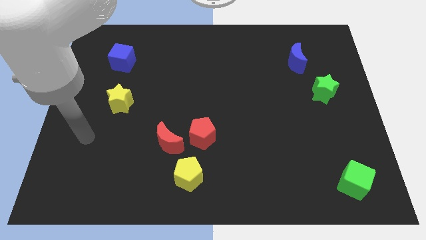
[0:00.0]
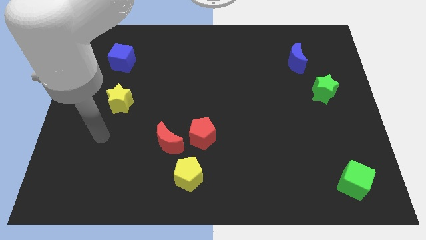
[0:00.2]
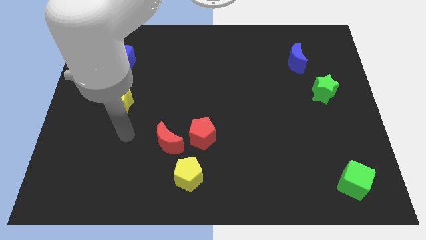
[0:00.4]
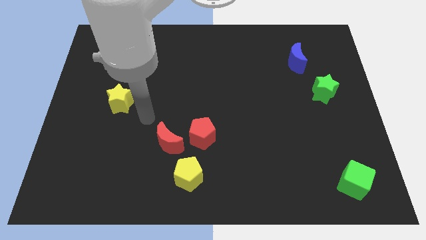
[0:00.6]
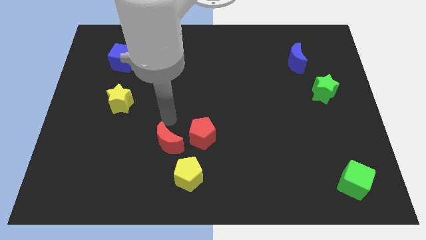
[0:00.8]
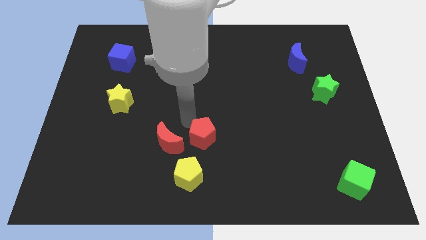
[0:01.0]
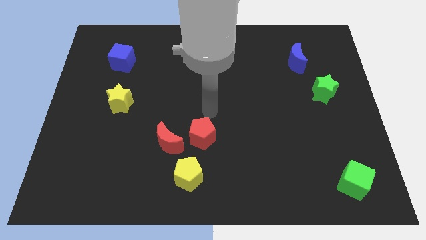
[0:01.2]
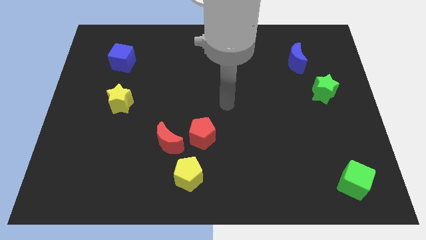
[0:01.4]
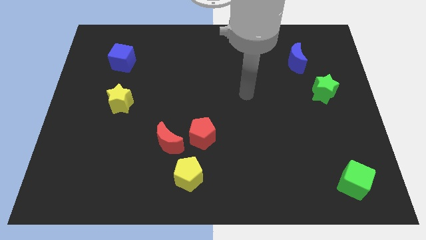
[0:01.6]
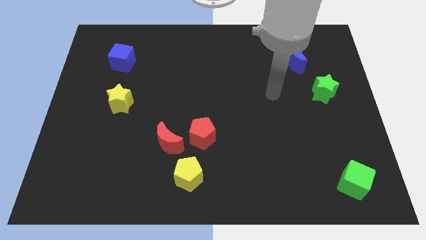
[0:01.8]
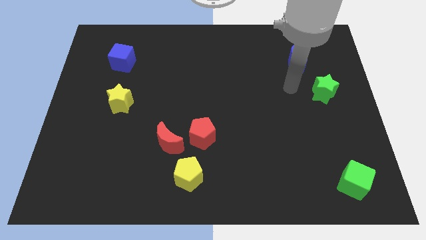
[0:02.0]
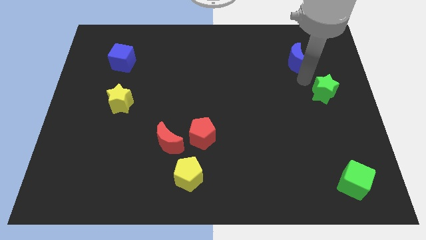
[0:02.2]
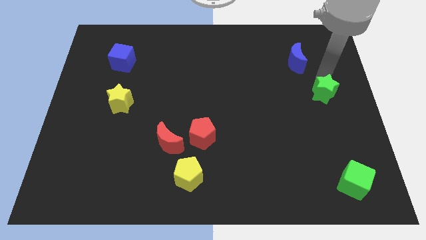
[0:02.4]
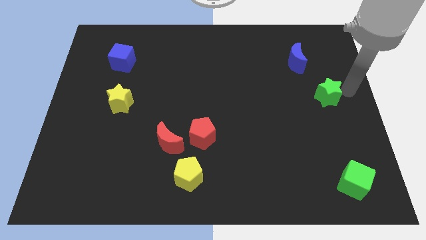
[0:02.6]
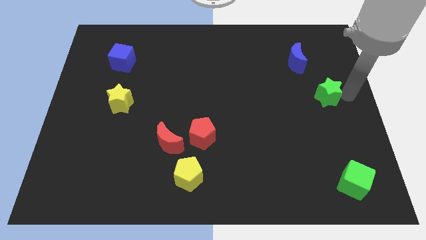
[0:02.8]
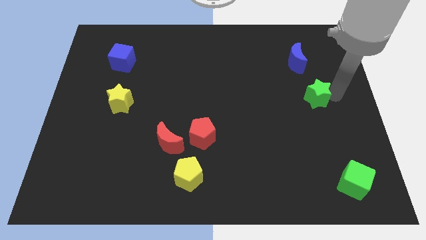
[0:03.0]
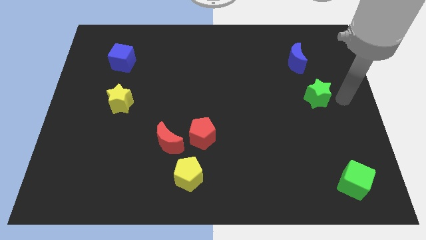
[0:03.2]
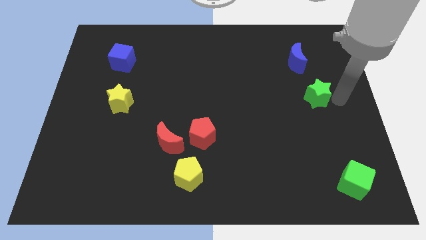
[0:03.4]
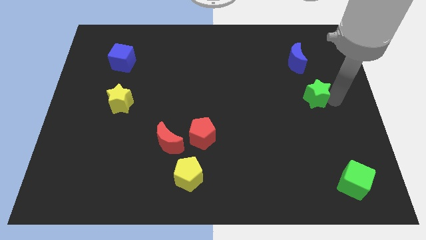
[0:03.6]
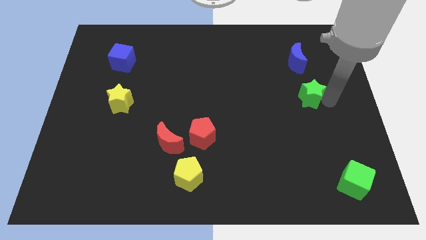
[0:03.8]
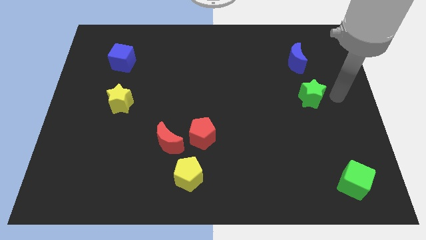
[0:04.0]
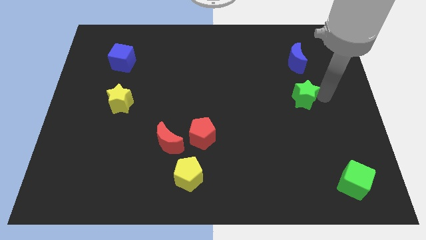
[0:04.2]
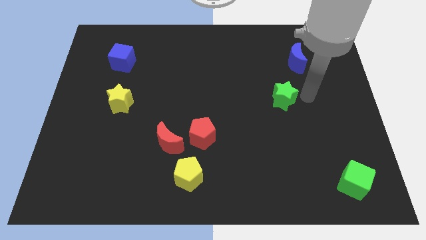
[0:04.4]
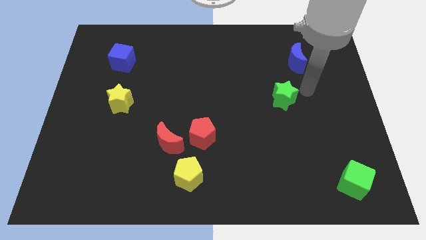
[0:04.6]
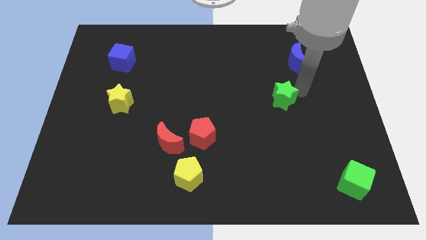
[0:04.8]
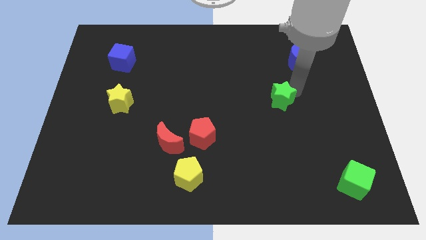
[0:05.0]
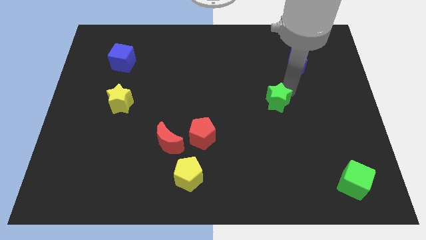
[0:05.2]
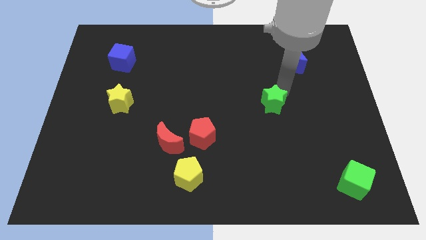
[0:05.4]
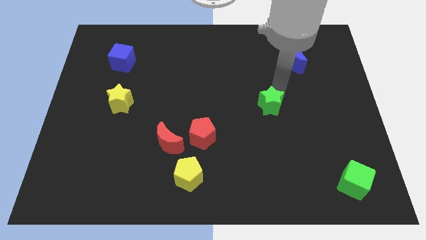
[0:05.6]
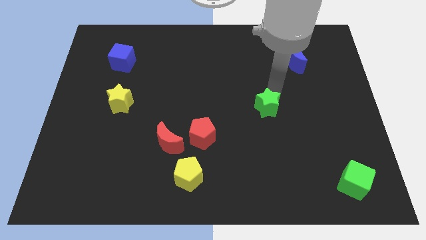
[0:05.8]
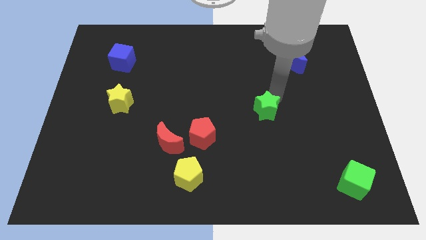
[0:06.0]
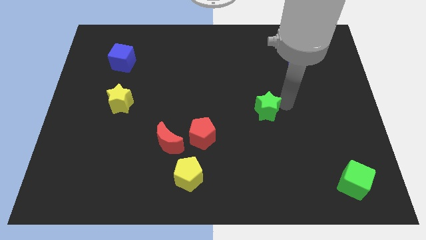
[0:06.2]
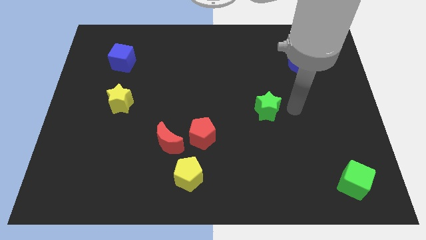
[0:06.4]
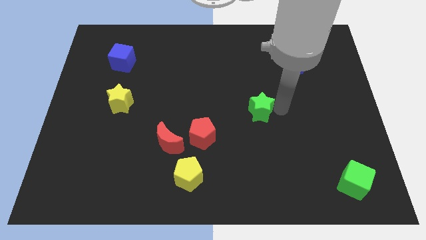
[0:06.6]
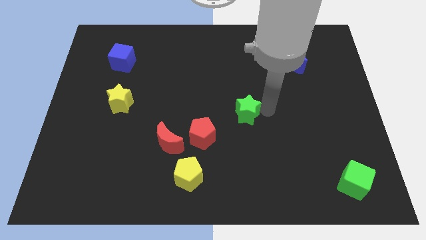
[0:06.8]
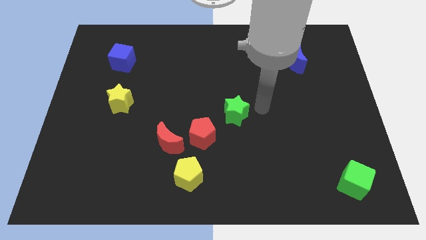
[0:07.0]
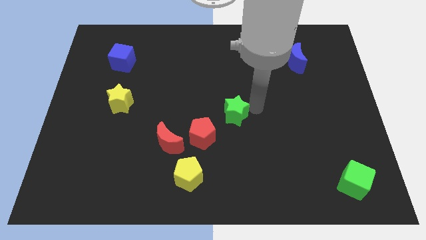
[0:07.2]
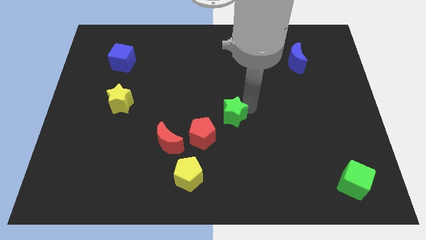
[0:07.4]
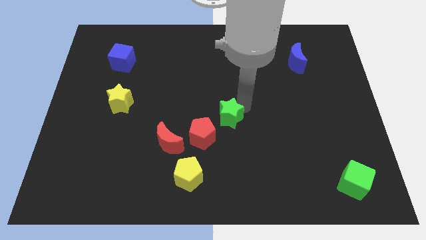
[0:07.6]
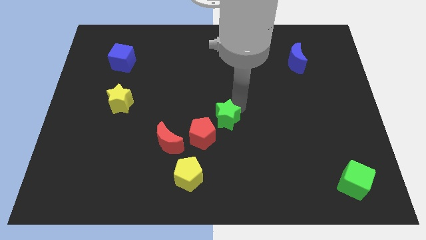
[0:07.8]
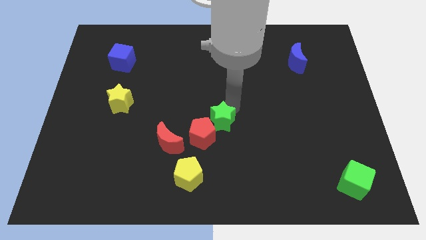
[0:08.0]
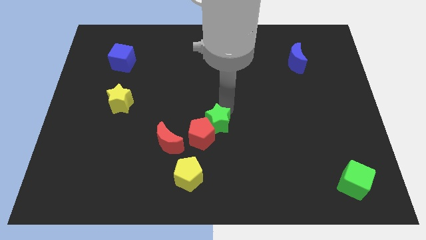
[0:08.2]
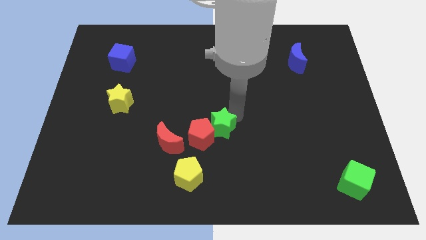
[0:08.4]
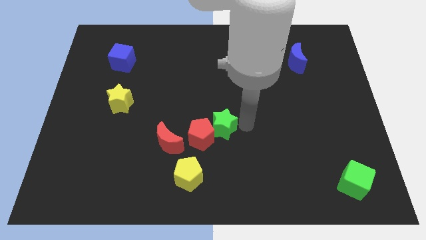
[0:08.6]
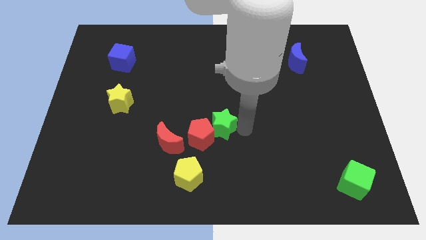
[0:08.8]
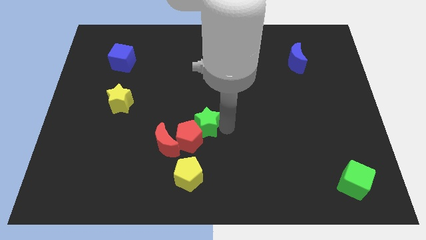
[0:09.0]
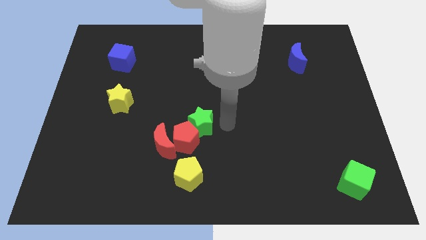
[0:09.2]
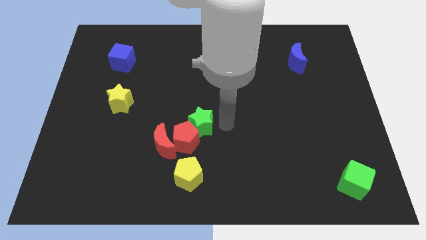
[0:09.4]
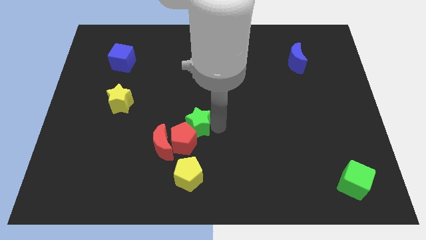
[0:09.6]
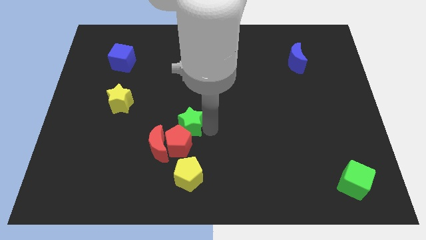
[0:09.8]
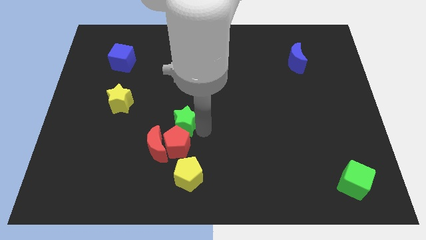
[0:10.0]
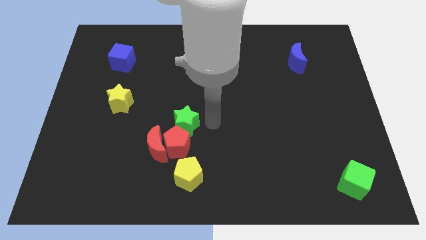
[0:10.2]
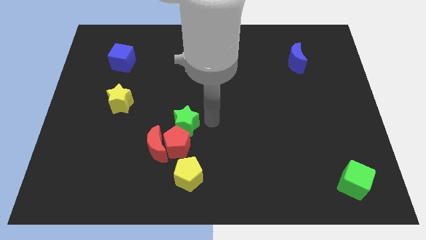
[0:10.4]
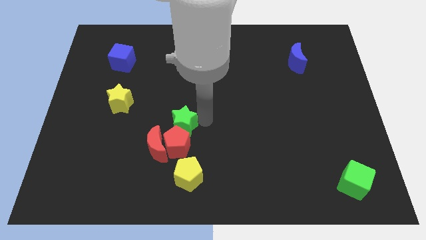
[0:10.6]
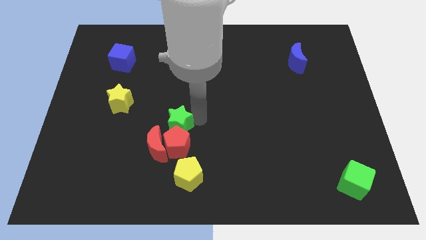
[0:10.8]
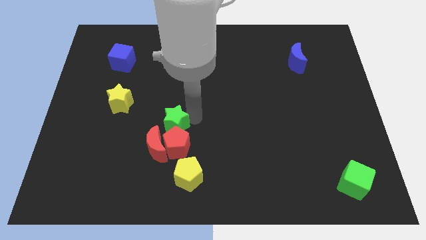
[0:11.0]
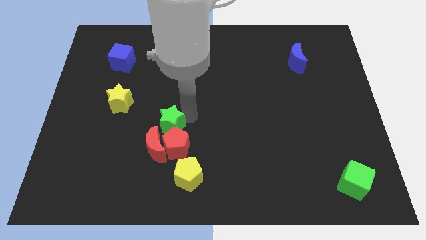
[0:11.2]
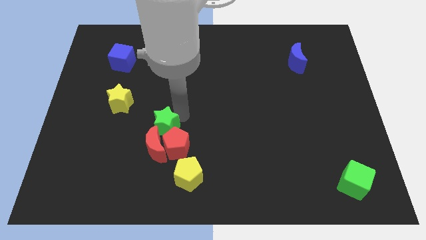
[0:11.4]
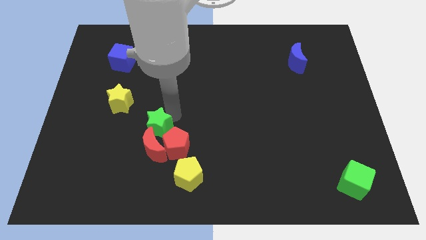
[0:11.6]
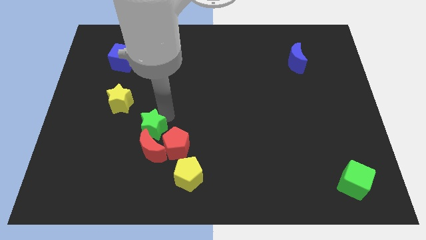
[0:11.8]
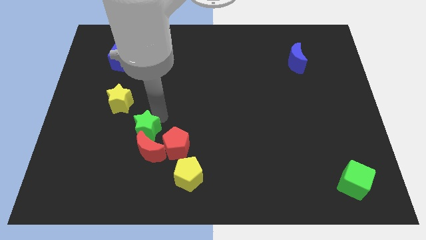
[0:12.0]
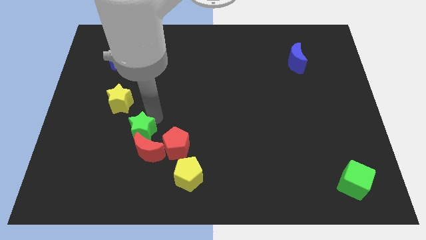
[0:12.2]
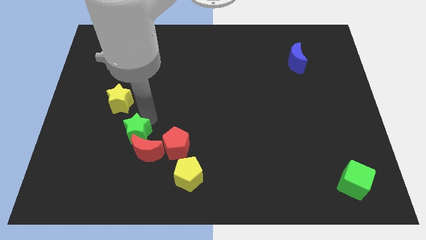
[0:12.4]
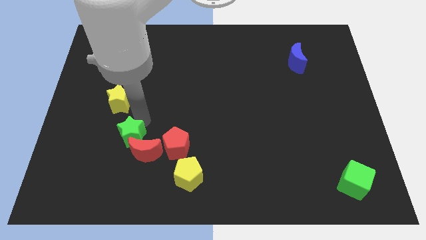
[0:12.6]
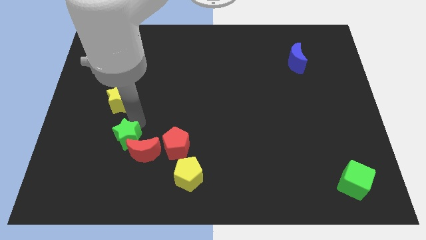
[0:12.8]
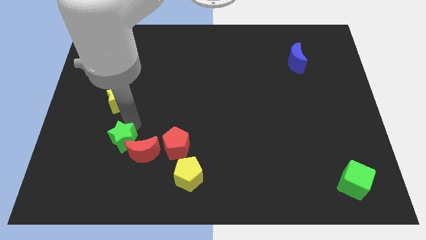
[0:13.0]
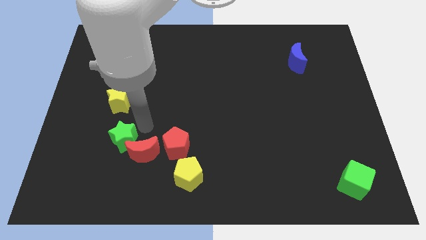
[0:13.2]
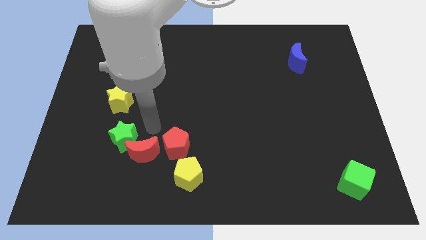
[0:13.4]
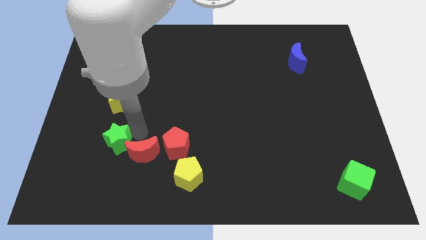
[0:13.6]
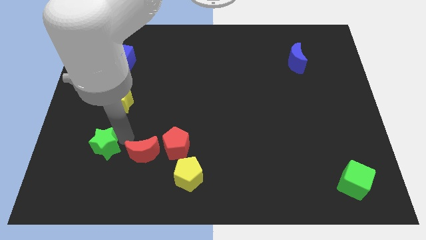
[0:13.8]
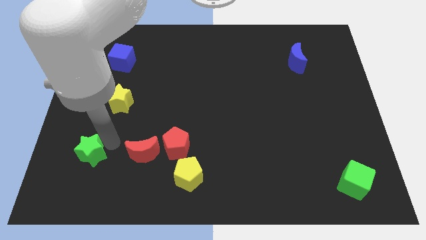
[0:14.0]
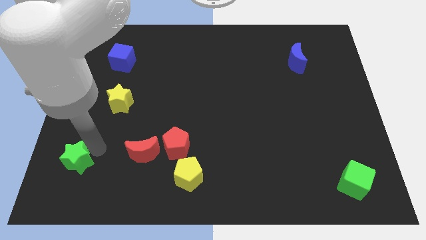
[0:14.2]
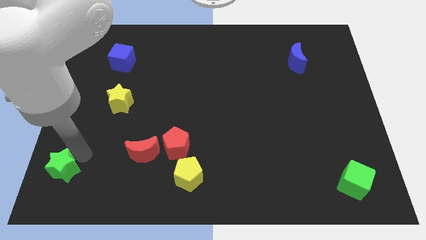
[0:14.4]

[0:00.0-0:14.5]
put the green star to the lower left corner
